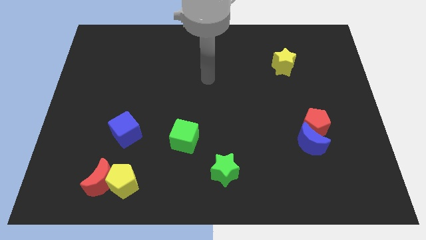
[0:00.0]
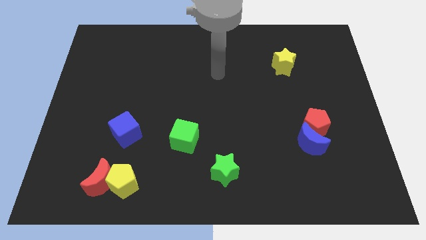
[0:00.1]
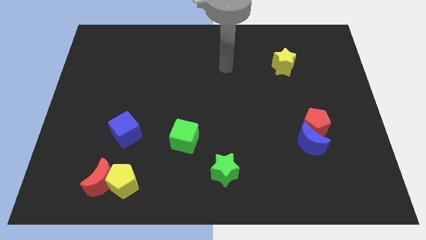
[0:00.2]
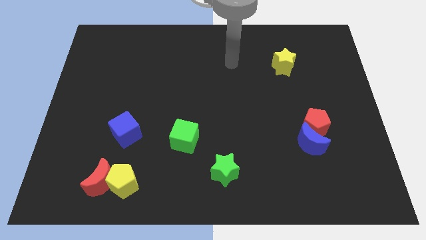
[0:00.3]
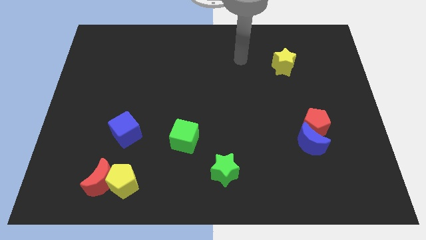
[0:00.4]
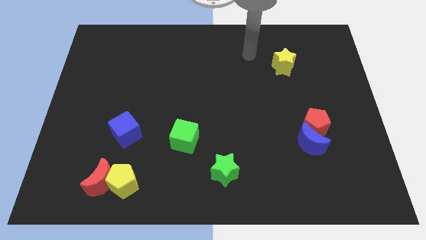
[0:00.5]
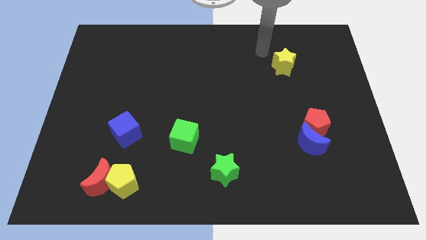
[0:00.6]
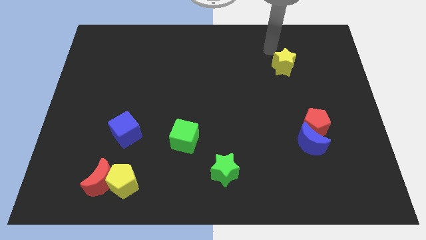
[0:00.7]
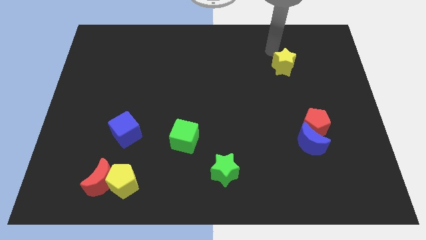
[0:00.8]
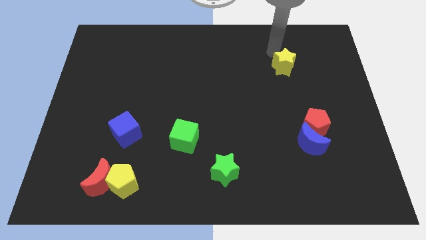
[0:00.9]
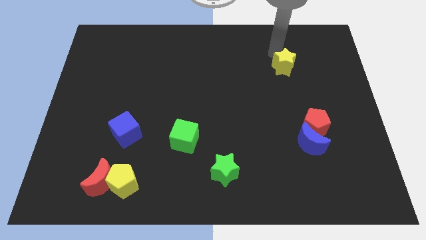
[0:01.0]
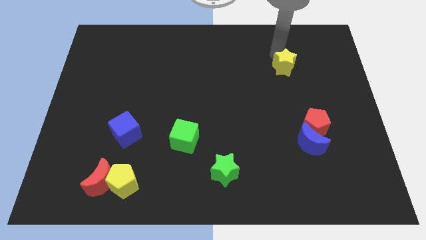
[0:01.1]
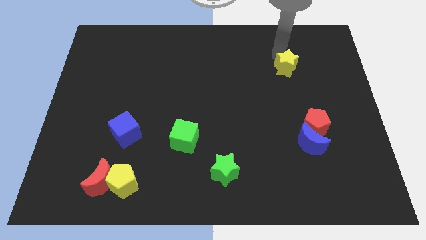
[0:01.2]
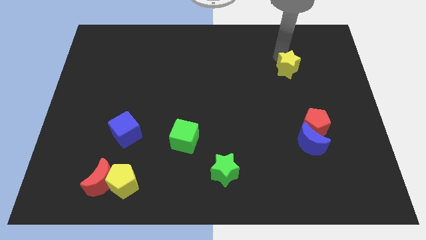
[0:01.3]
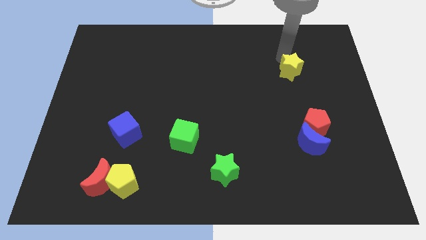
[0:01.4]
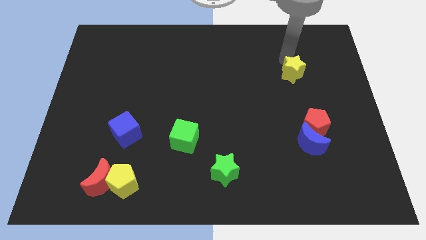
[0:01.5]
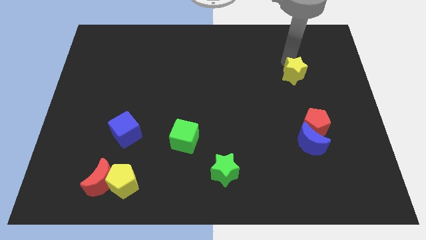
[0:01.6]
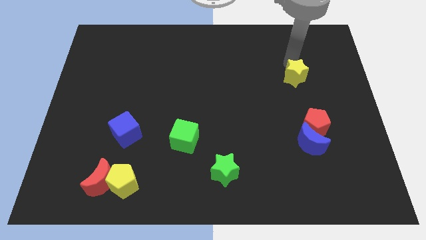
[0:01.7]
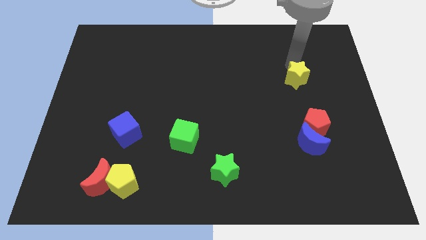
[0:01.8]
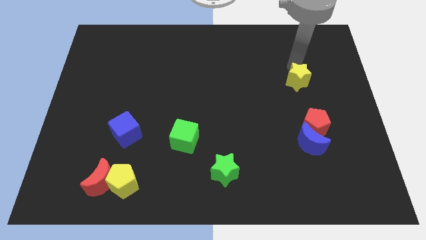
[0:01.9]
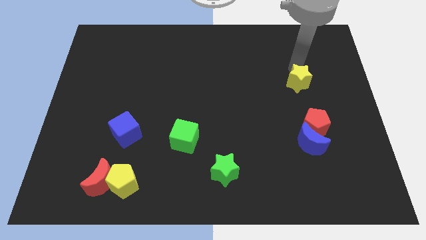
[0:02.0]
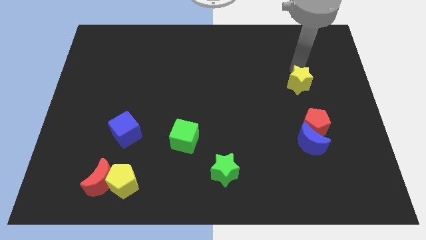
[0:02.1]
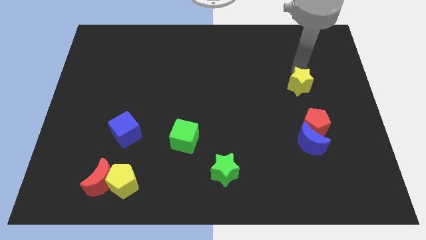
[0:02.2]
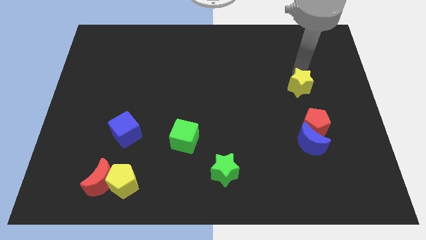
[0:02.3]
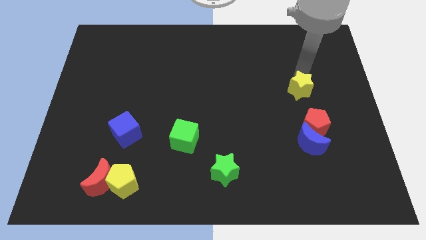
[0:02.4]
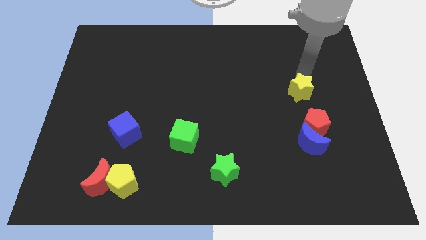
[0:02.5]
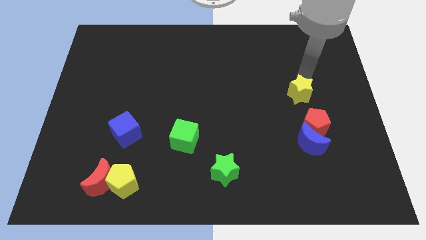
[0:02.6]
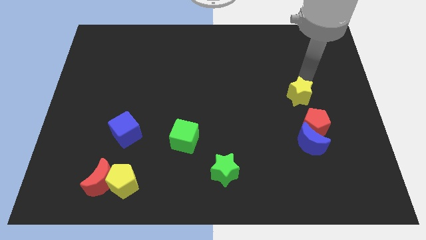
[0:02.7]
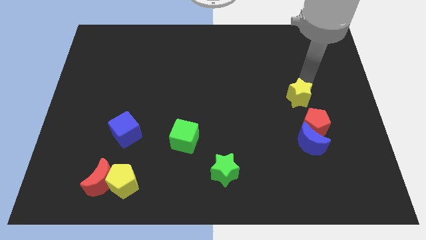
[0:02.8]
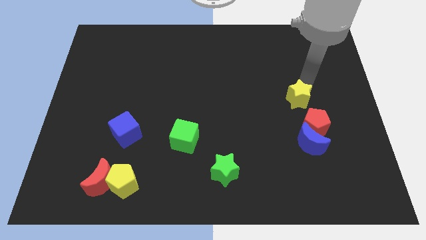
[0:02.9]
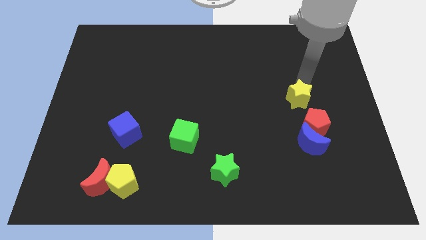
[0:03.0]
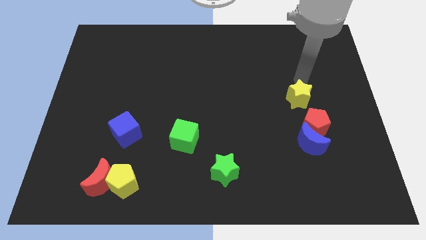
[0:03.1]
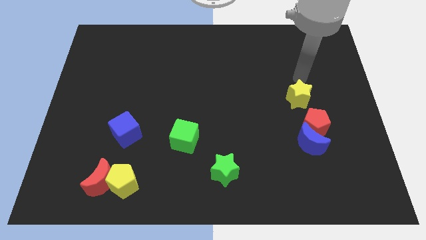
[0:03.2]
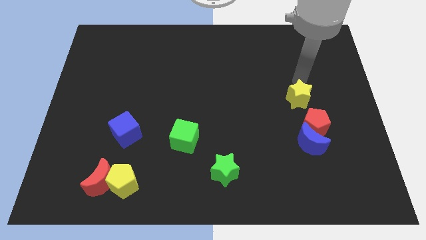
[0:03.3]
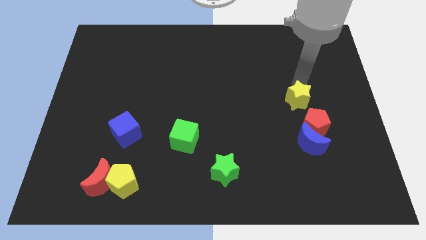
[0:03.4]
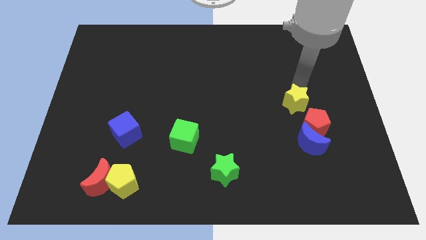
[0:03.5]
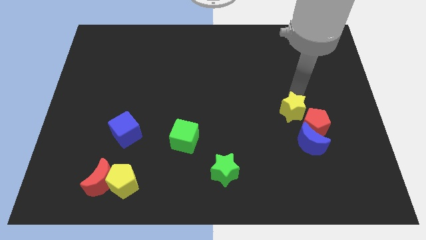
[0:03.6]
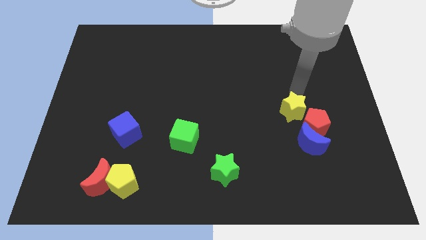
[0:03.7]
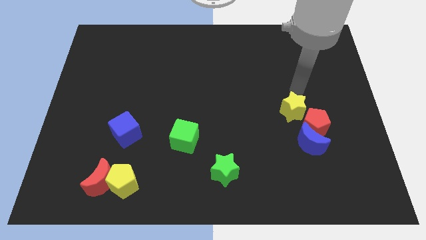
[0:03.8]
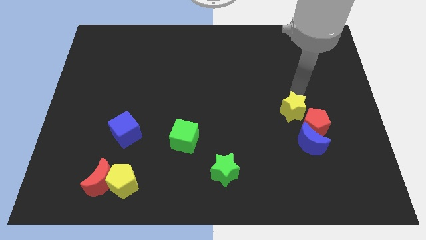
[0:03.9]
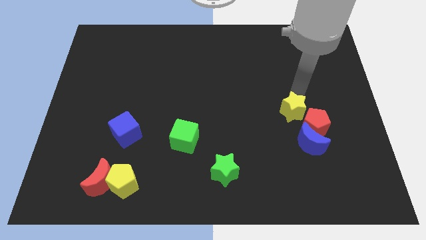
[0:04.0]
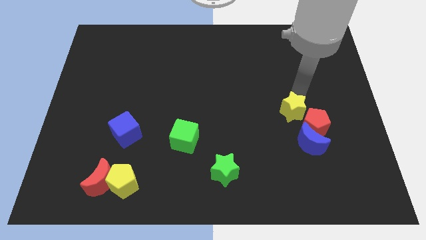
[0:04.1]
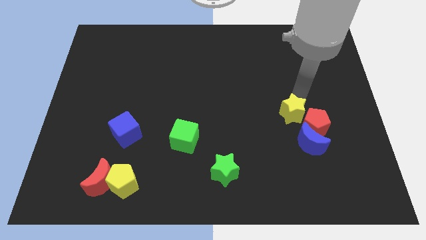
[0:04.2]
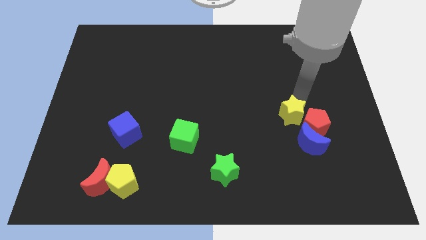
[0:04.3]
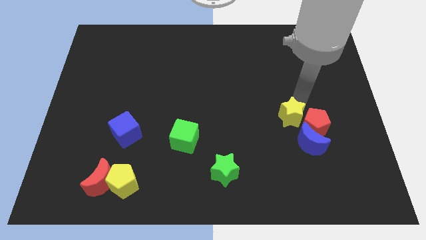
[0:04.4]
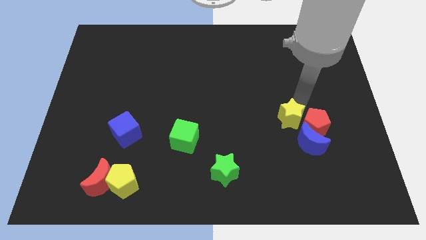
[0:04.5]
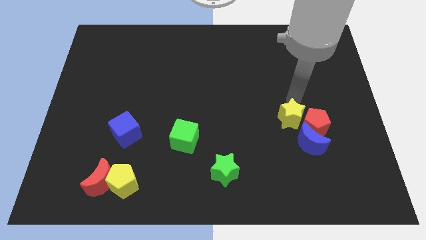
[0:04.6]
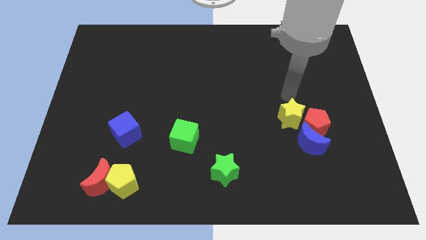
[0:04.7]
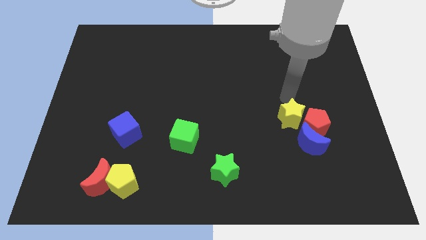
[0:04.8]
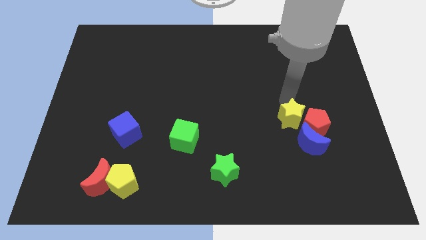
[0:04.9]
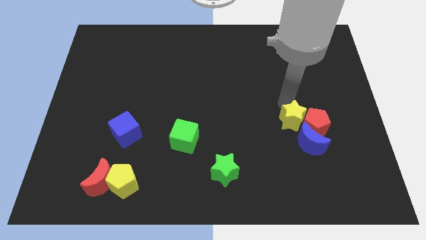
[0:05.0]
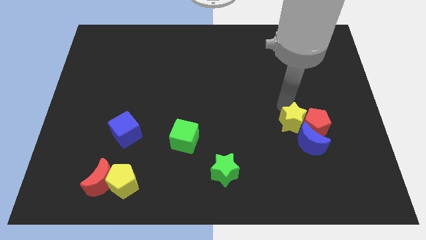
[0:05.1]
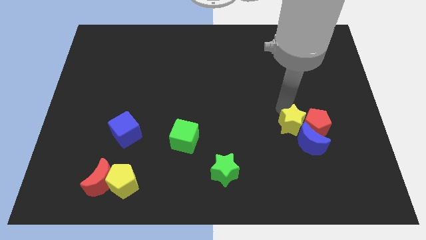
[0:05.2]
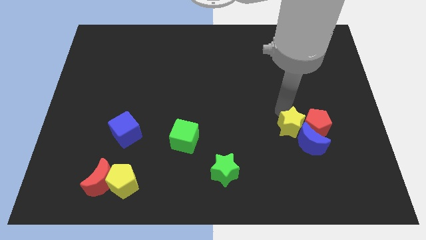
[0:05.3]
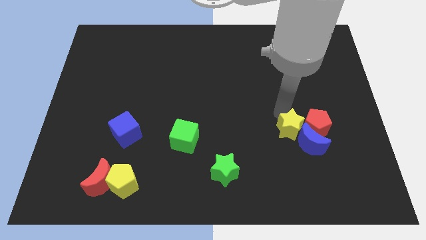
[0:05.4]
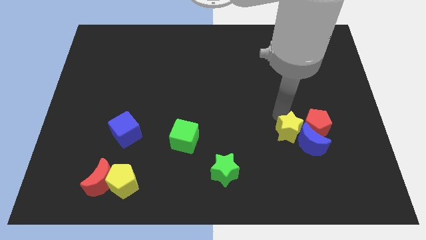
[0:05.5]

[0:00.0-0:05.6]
slide the yellow star down

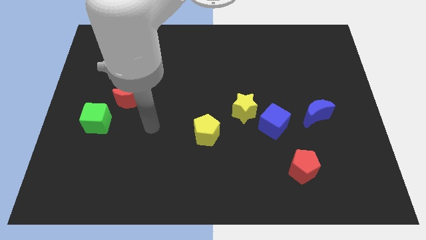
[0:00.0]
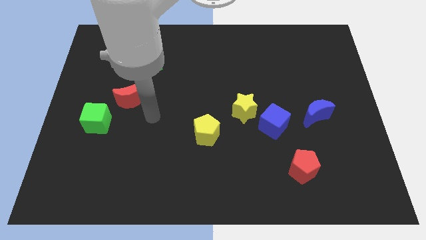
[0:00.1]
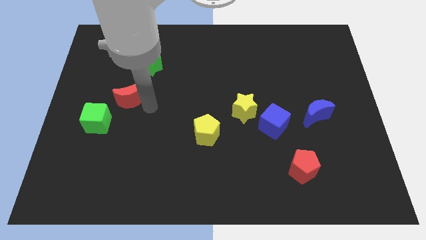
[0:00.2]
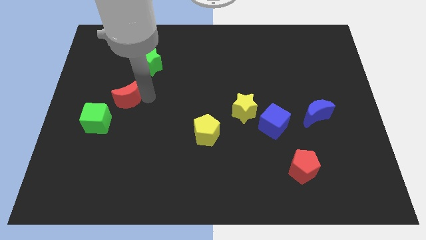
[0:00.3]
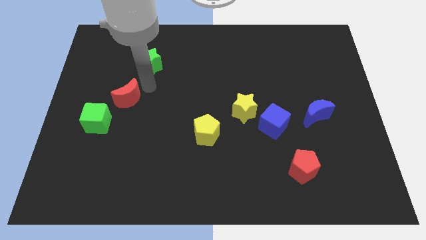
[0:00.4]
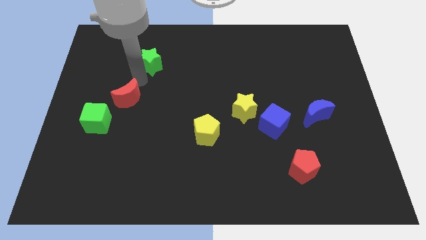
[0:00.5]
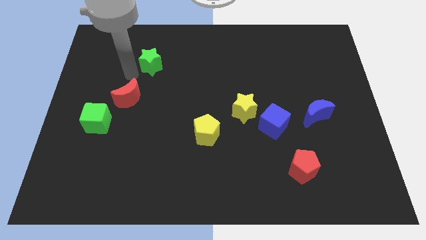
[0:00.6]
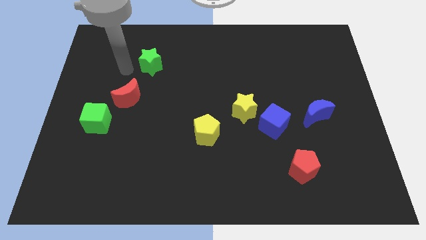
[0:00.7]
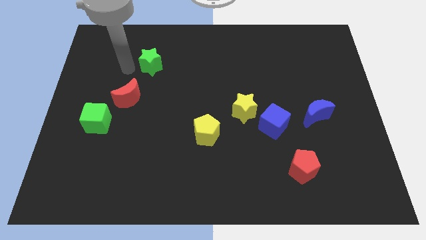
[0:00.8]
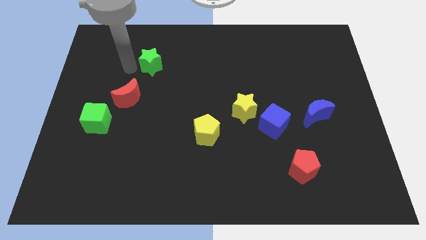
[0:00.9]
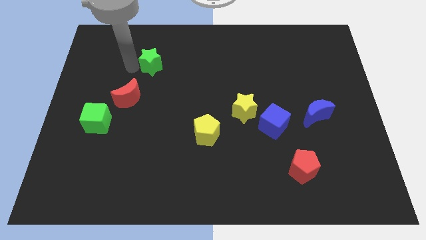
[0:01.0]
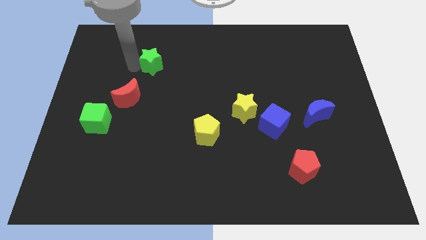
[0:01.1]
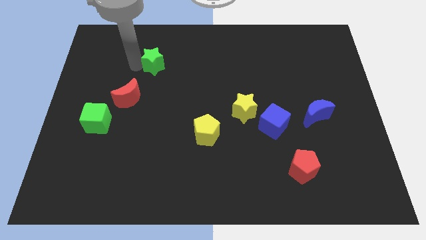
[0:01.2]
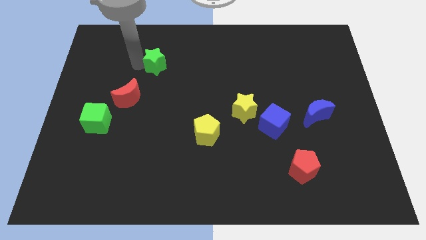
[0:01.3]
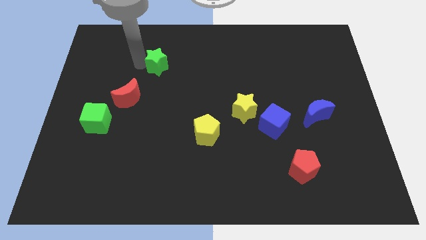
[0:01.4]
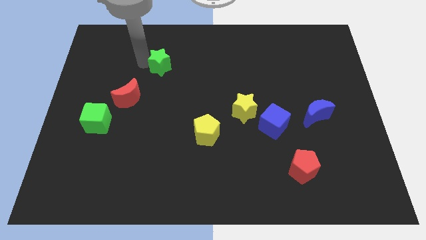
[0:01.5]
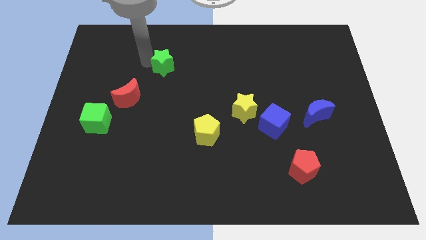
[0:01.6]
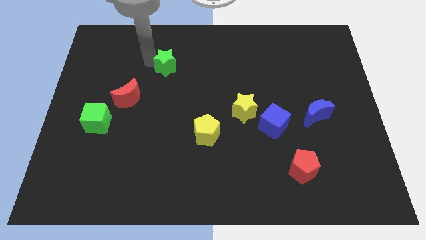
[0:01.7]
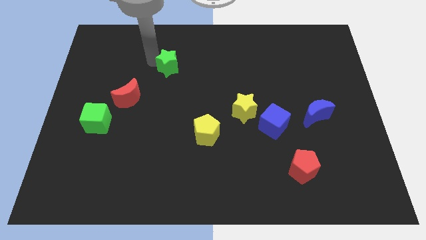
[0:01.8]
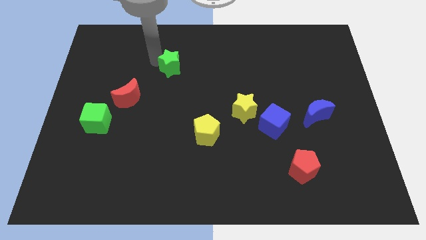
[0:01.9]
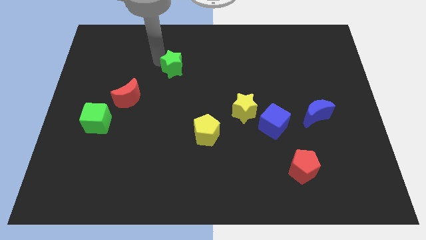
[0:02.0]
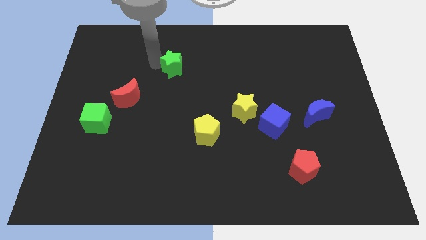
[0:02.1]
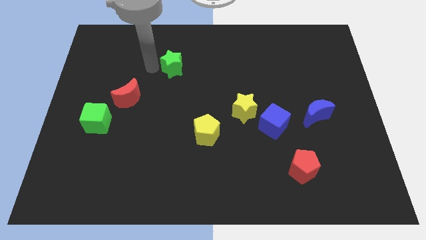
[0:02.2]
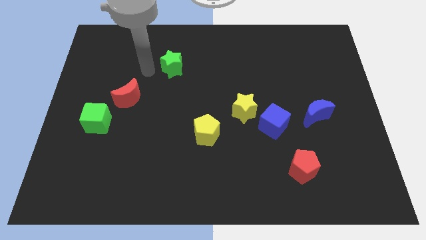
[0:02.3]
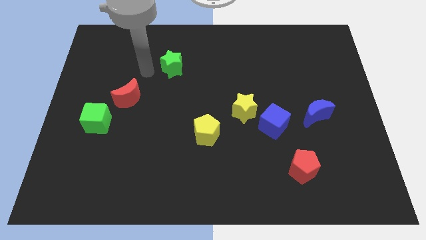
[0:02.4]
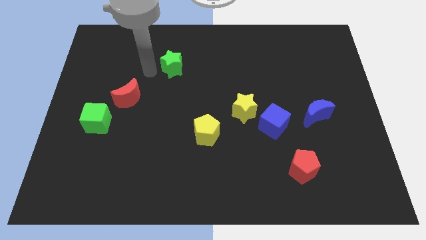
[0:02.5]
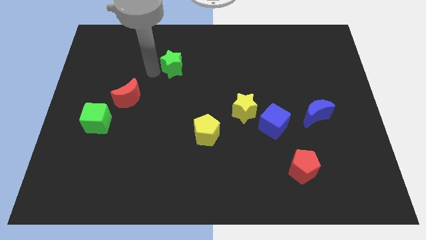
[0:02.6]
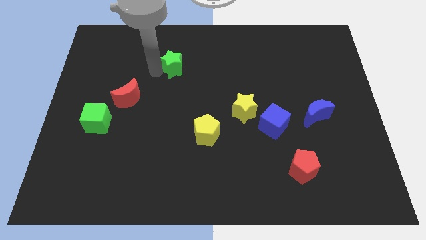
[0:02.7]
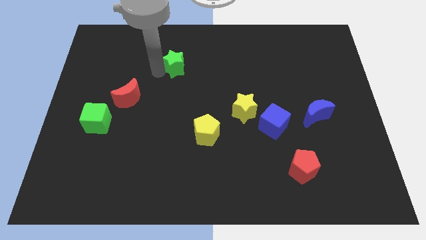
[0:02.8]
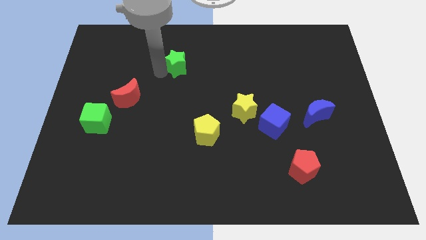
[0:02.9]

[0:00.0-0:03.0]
move the green star a little bit to the right
